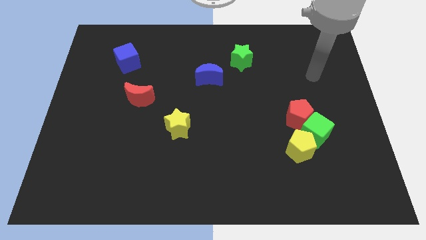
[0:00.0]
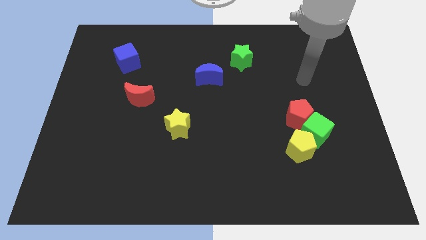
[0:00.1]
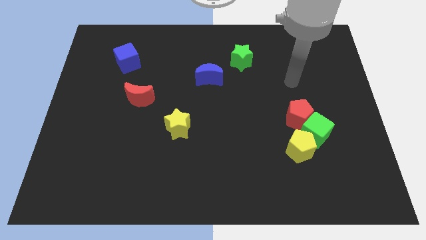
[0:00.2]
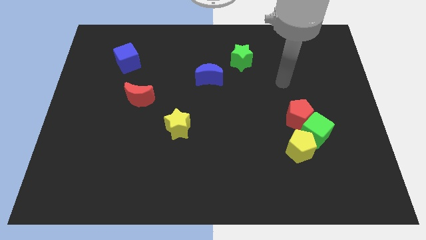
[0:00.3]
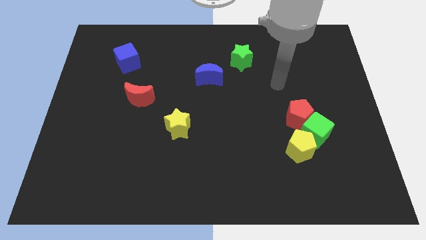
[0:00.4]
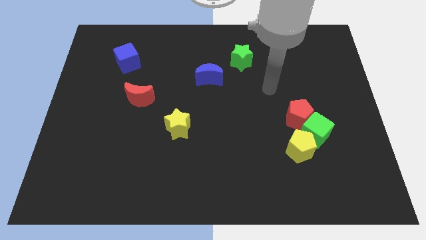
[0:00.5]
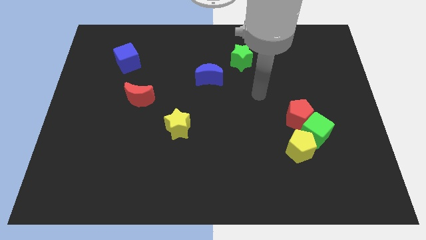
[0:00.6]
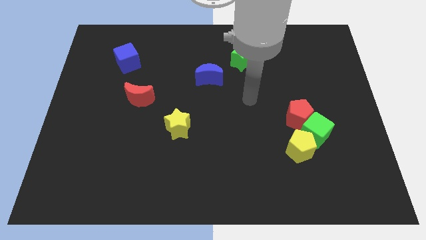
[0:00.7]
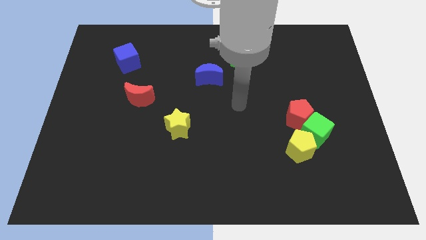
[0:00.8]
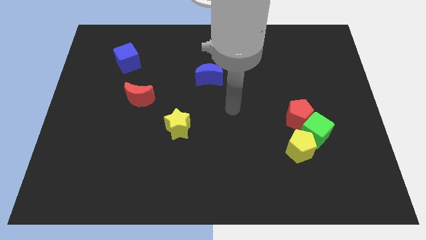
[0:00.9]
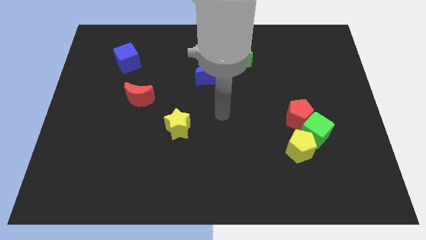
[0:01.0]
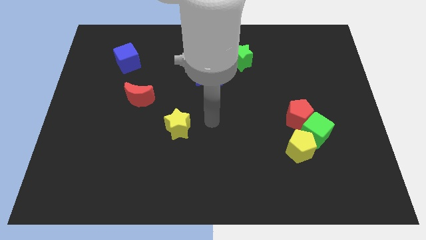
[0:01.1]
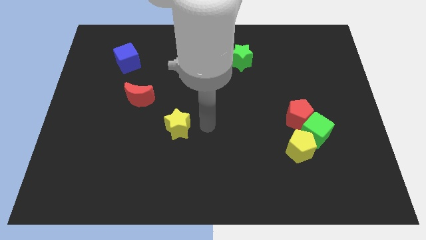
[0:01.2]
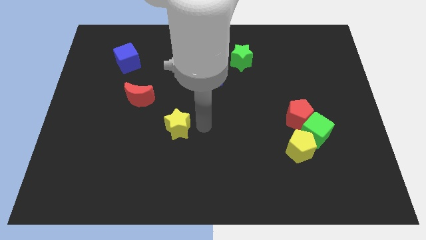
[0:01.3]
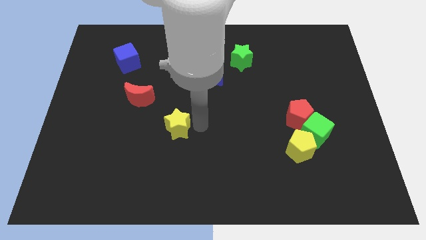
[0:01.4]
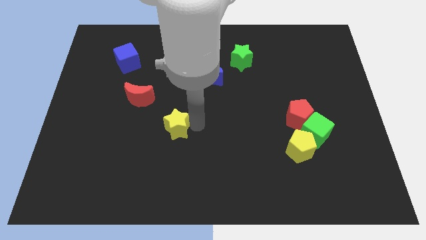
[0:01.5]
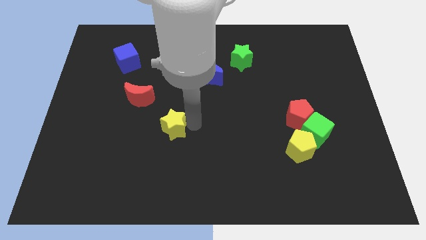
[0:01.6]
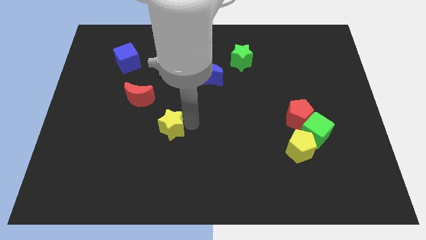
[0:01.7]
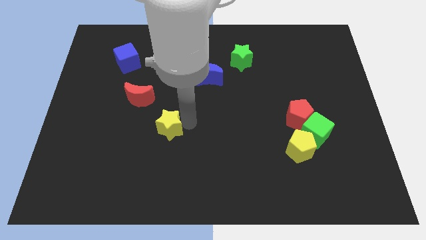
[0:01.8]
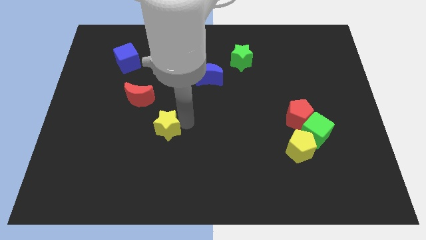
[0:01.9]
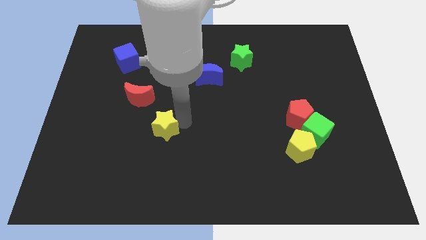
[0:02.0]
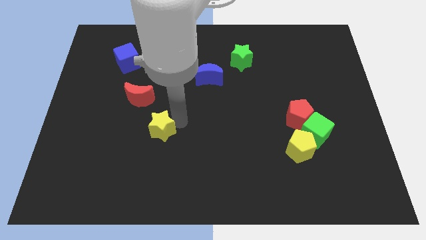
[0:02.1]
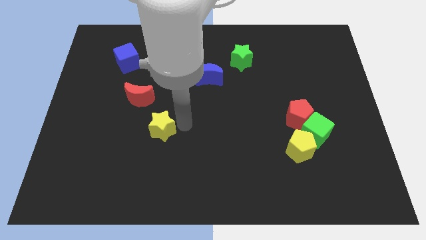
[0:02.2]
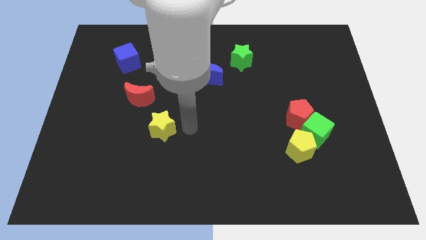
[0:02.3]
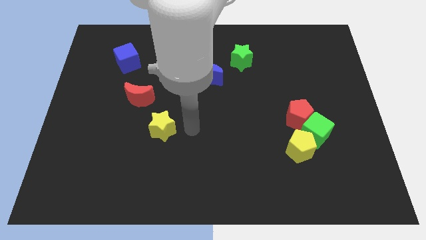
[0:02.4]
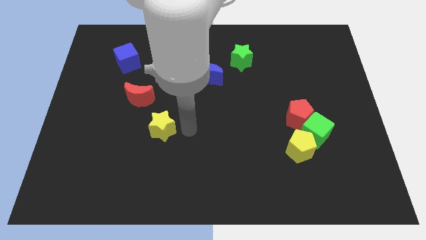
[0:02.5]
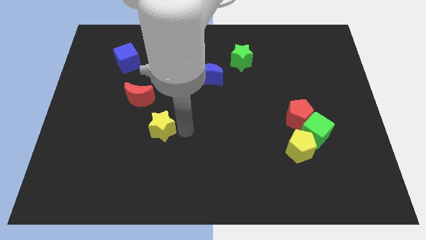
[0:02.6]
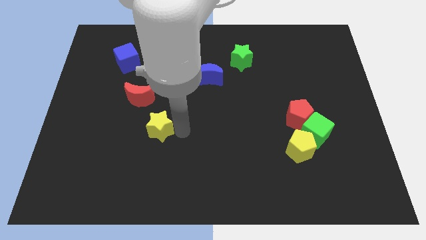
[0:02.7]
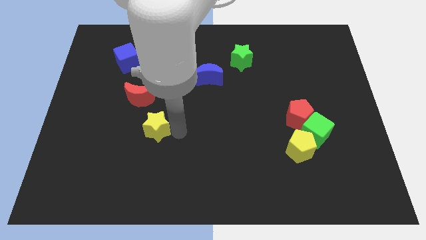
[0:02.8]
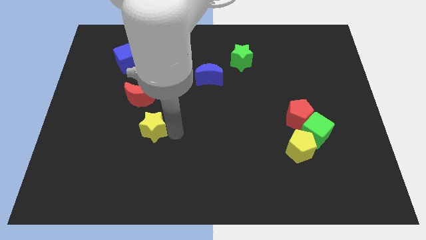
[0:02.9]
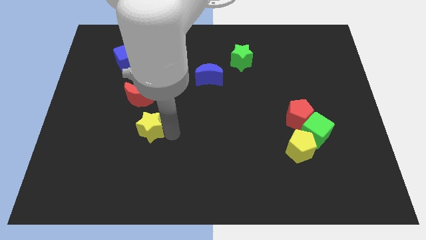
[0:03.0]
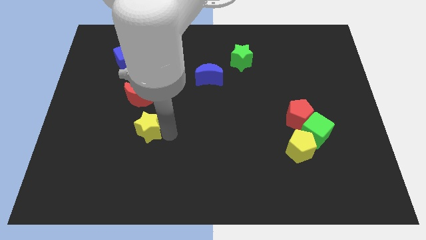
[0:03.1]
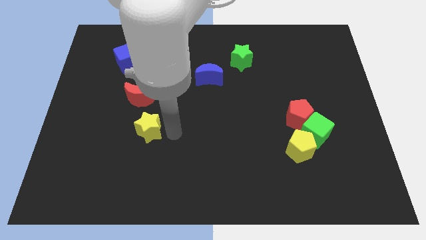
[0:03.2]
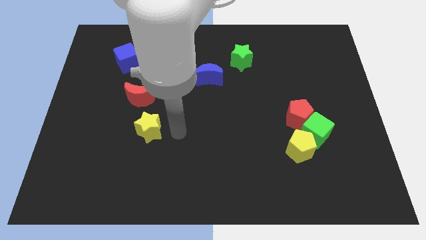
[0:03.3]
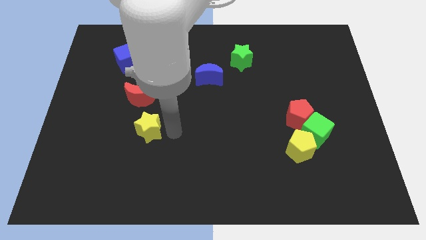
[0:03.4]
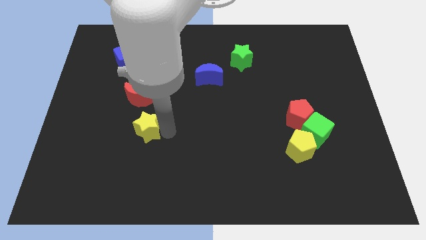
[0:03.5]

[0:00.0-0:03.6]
slide the yellow star a little to the left

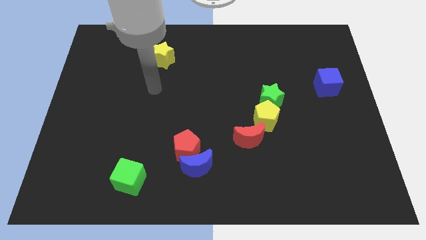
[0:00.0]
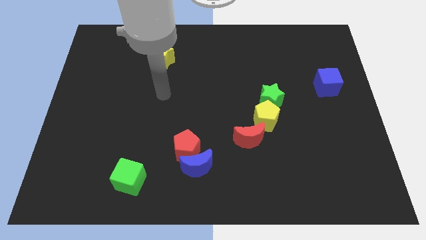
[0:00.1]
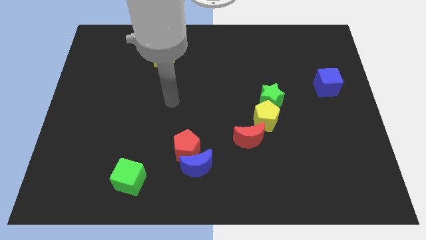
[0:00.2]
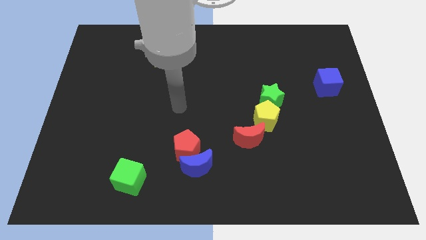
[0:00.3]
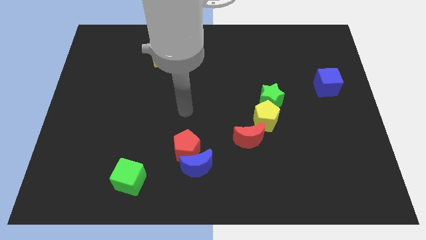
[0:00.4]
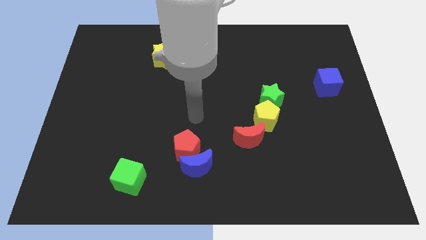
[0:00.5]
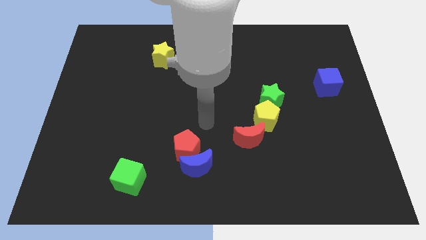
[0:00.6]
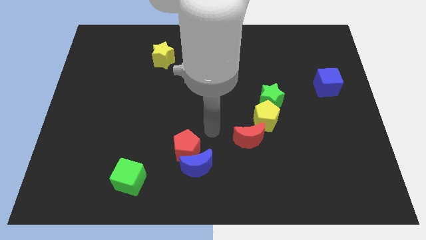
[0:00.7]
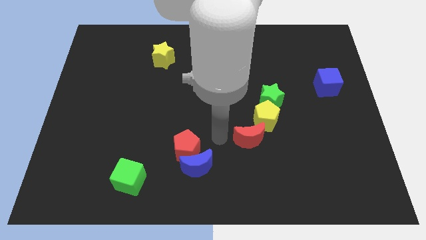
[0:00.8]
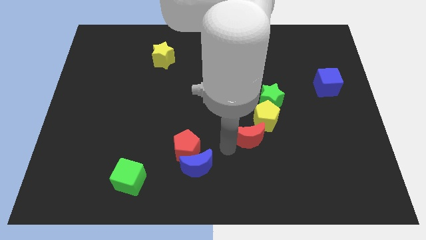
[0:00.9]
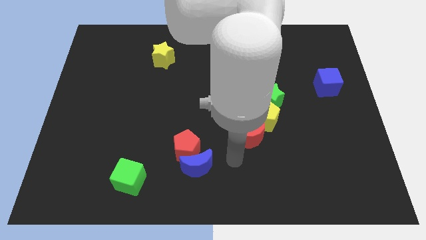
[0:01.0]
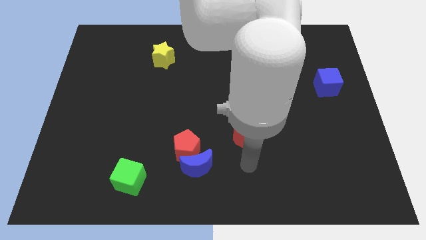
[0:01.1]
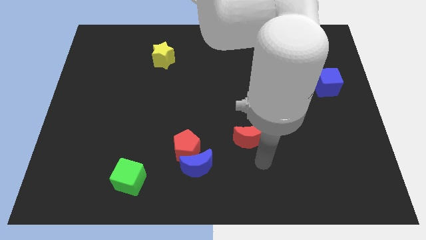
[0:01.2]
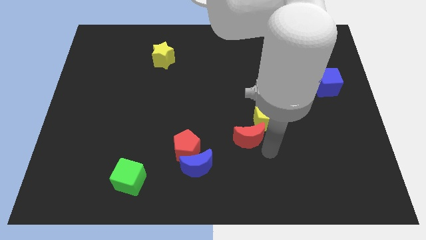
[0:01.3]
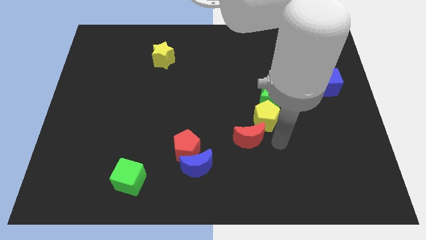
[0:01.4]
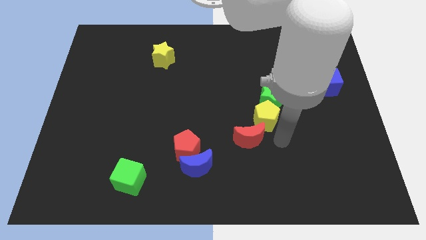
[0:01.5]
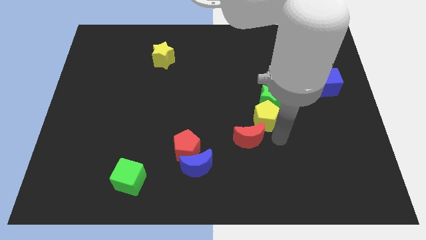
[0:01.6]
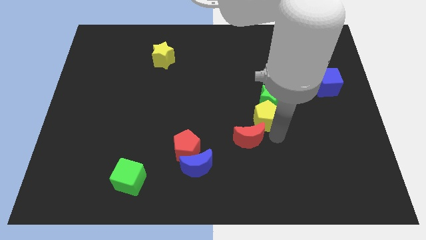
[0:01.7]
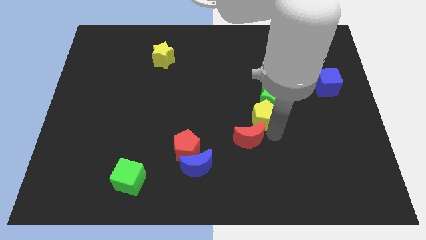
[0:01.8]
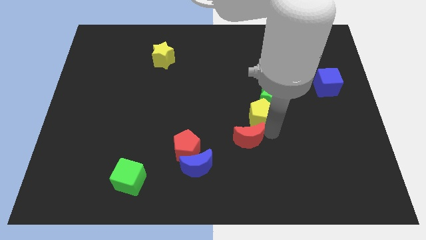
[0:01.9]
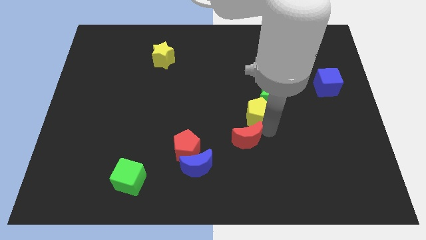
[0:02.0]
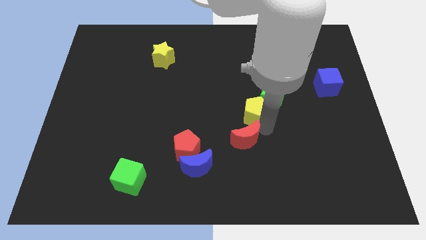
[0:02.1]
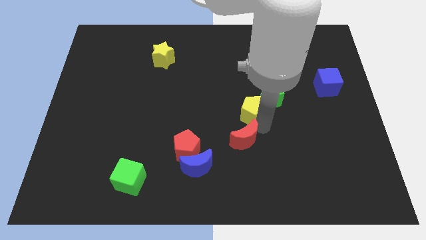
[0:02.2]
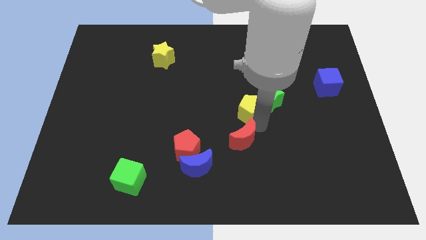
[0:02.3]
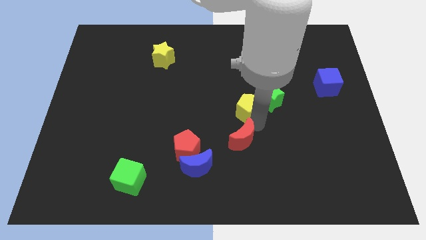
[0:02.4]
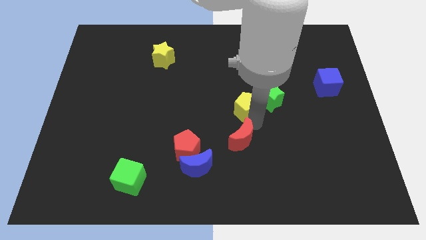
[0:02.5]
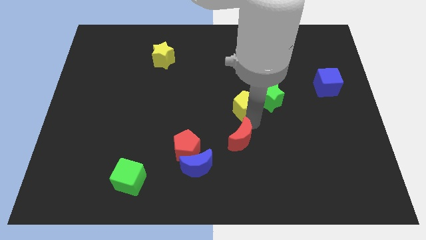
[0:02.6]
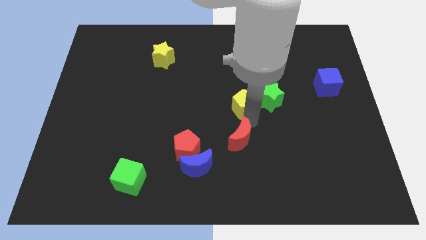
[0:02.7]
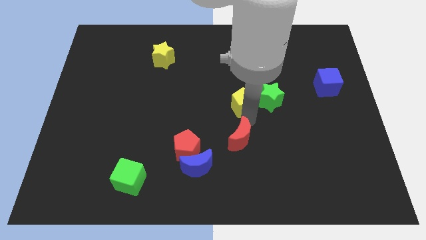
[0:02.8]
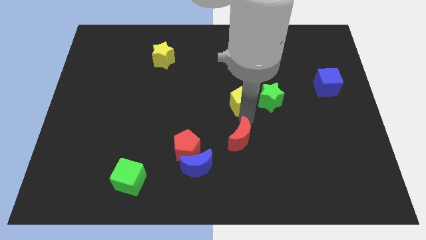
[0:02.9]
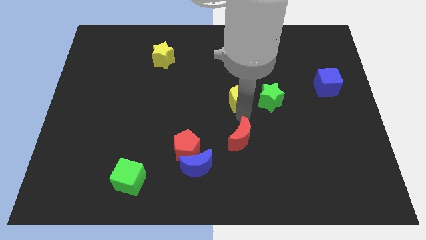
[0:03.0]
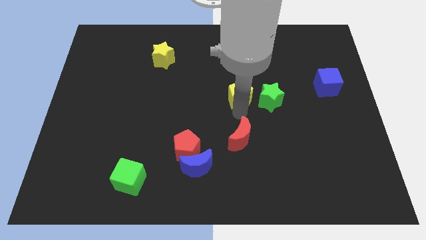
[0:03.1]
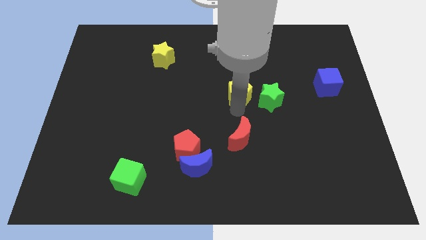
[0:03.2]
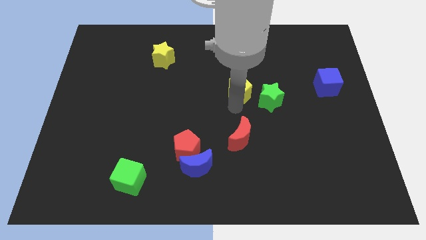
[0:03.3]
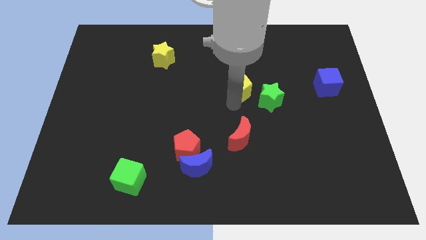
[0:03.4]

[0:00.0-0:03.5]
slightly slide the yellow pentagon upwards

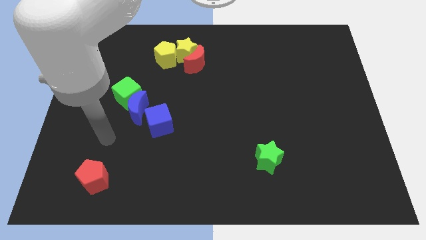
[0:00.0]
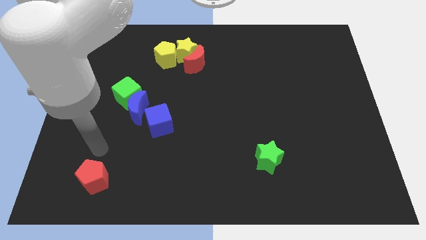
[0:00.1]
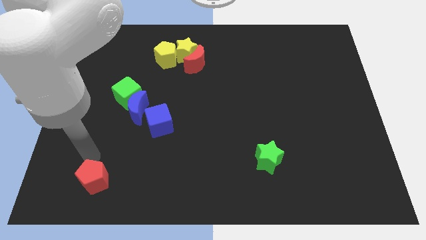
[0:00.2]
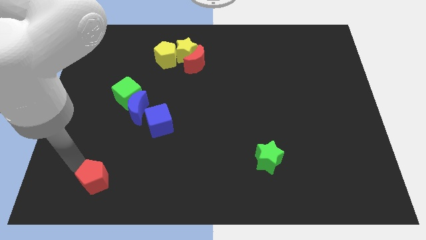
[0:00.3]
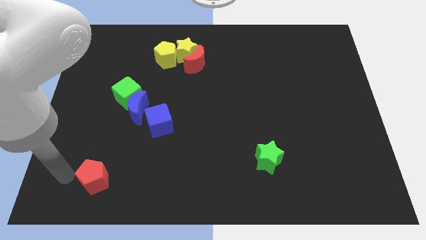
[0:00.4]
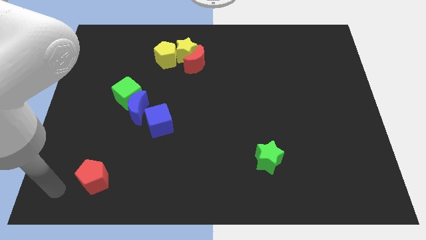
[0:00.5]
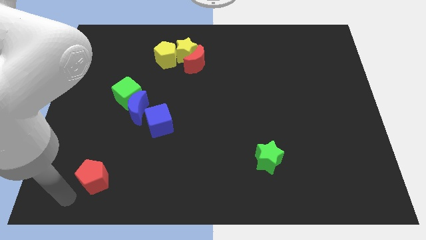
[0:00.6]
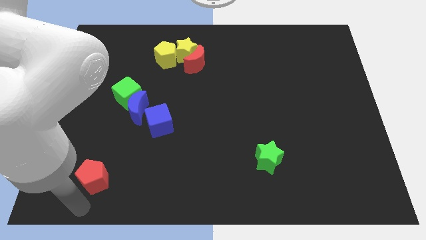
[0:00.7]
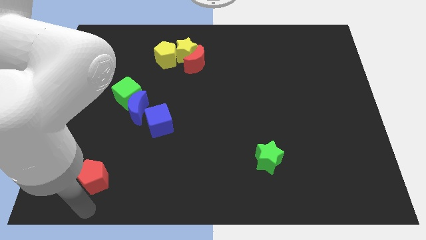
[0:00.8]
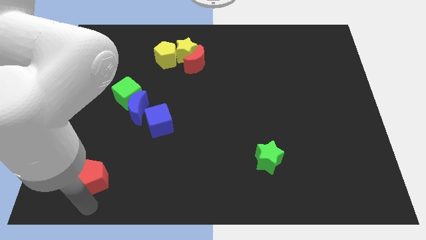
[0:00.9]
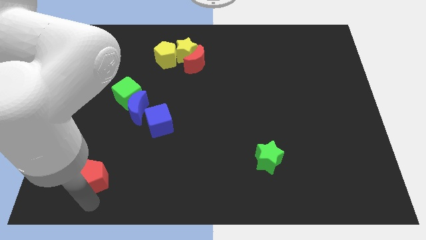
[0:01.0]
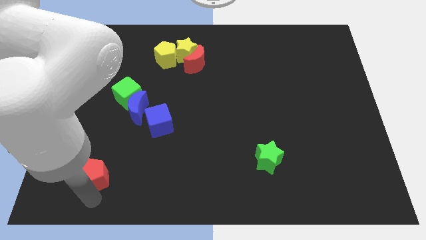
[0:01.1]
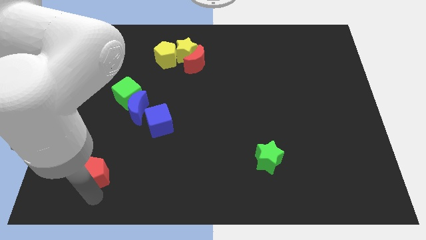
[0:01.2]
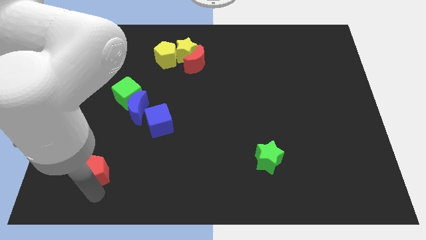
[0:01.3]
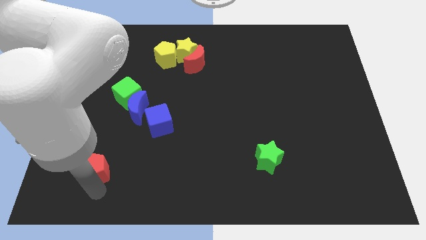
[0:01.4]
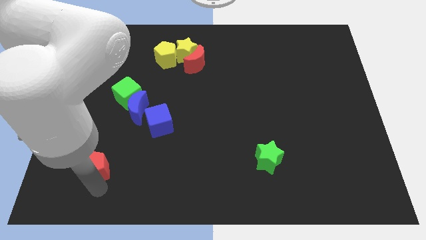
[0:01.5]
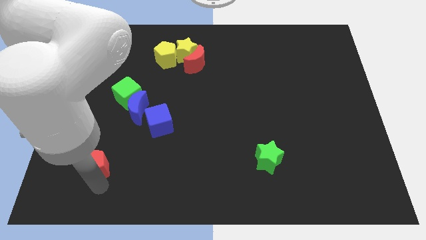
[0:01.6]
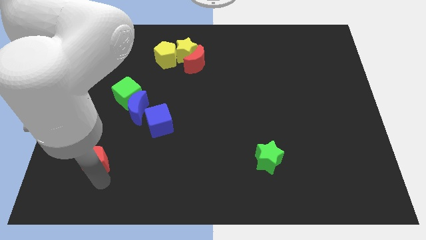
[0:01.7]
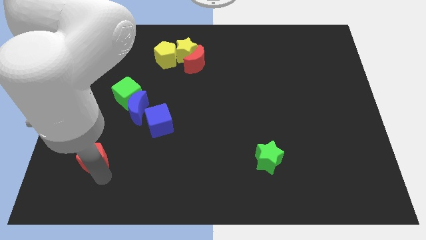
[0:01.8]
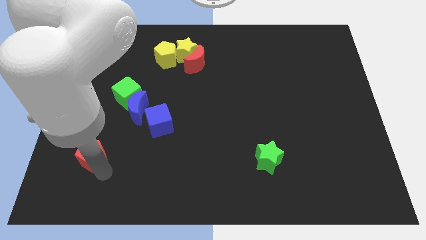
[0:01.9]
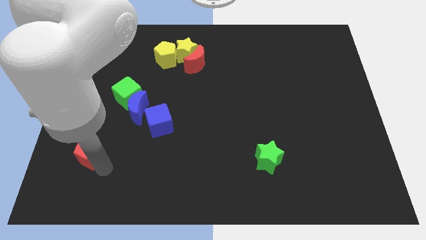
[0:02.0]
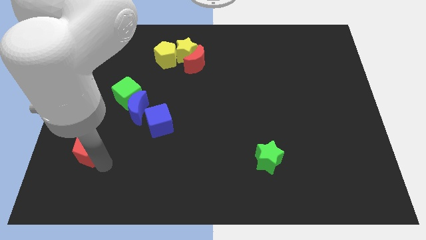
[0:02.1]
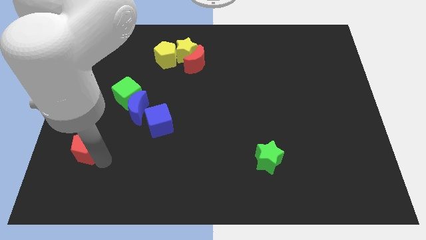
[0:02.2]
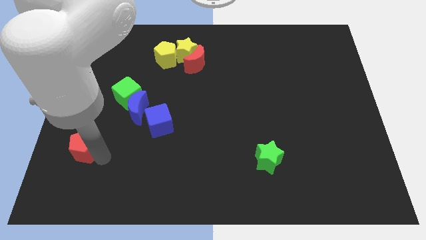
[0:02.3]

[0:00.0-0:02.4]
push the red pentagon slightly upwards
